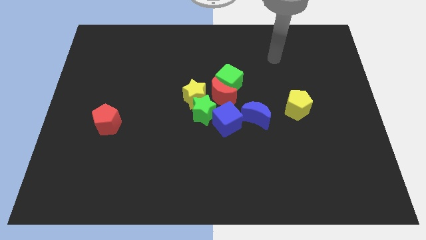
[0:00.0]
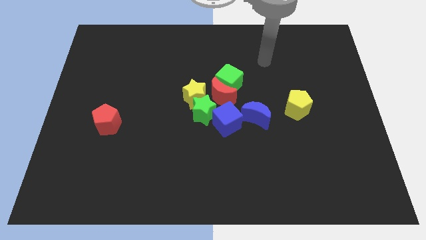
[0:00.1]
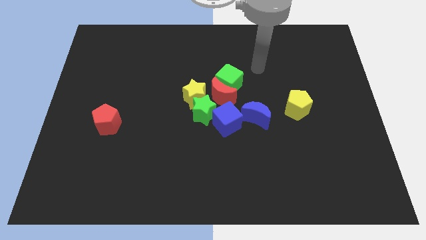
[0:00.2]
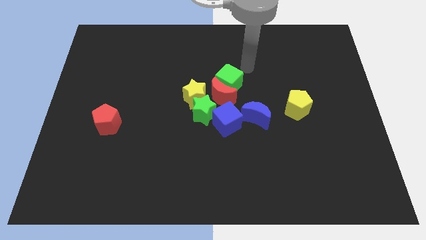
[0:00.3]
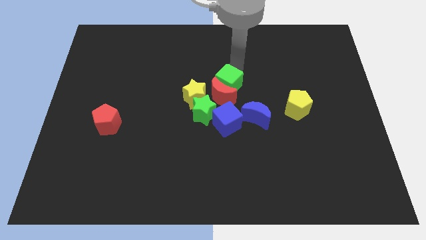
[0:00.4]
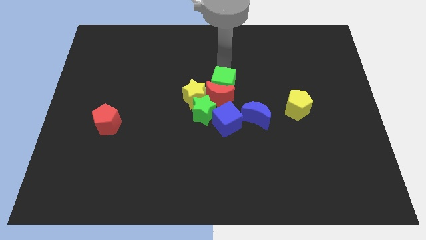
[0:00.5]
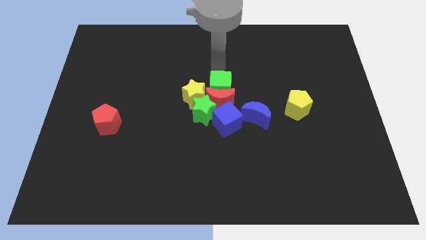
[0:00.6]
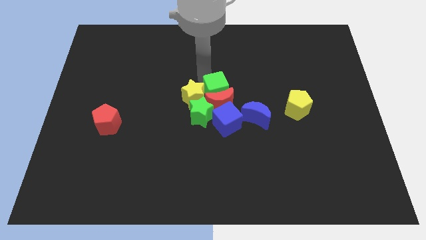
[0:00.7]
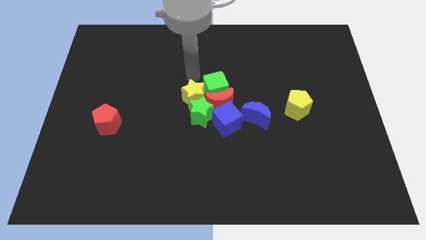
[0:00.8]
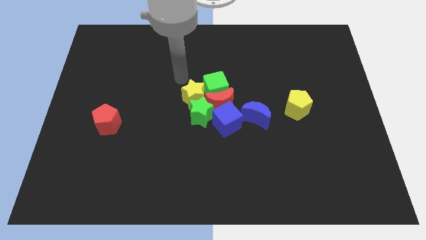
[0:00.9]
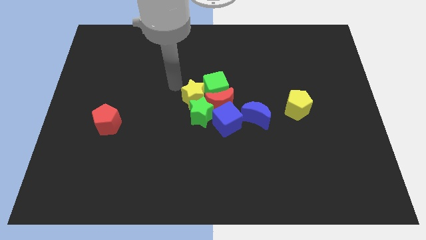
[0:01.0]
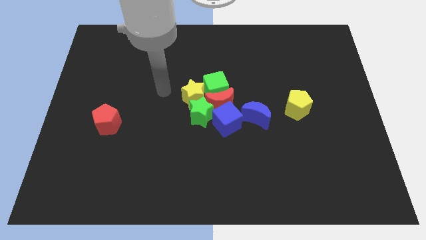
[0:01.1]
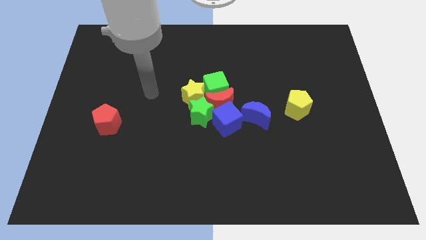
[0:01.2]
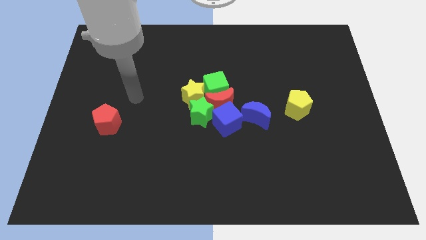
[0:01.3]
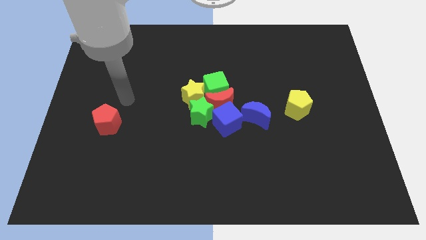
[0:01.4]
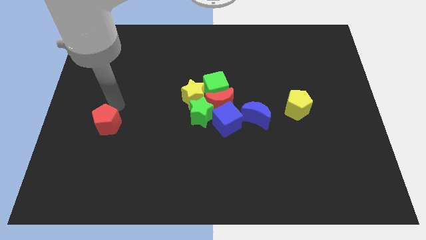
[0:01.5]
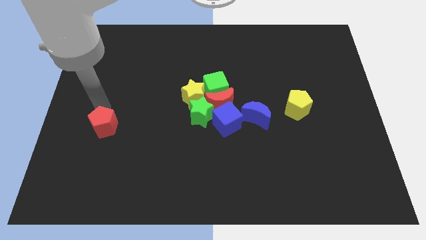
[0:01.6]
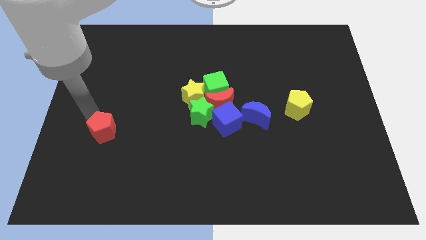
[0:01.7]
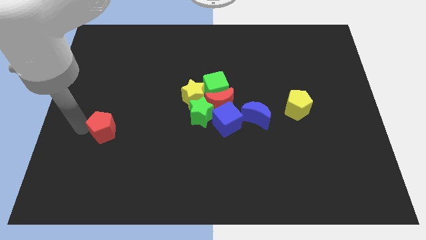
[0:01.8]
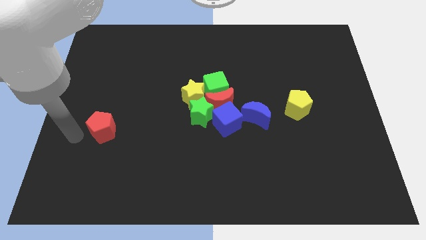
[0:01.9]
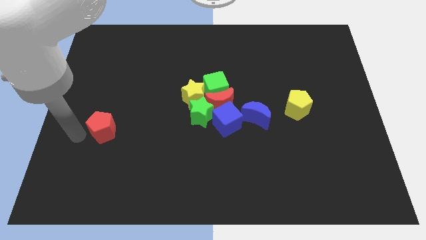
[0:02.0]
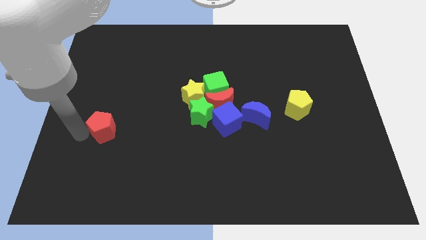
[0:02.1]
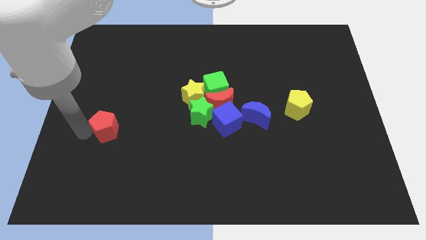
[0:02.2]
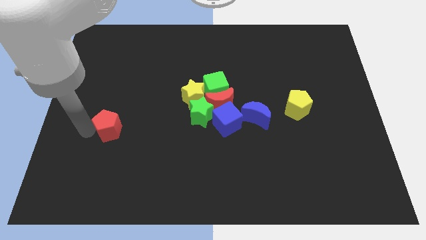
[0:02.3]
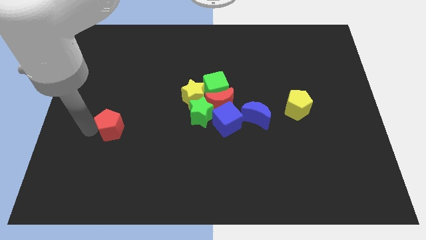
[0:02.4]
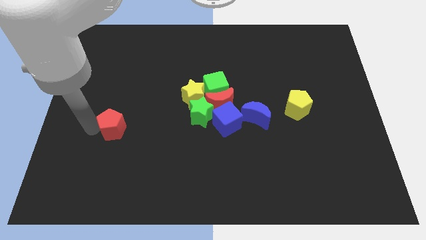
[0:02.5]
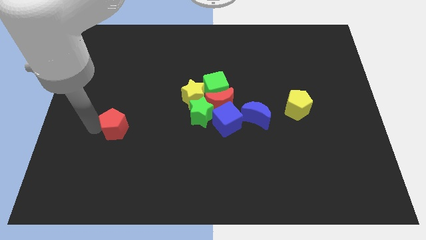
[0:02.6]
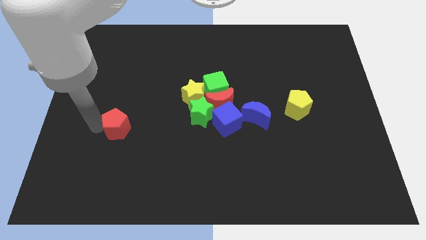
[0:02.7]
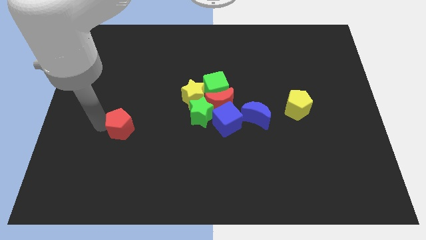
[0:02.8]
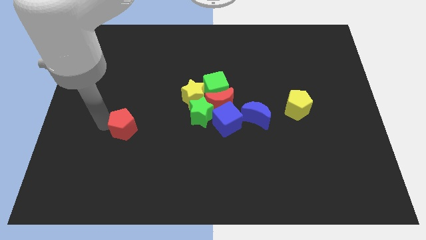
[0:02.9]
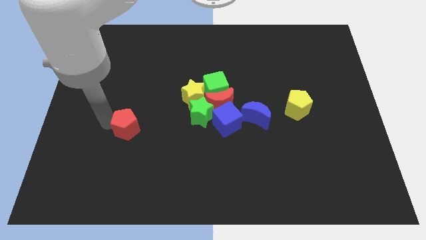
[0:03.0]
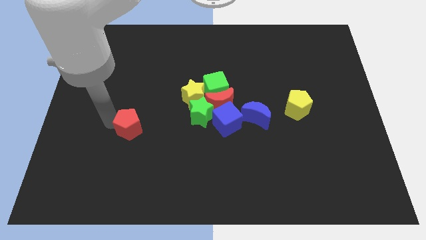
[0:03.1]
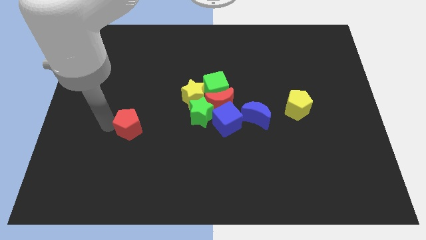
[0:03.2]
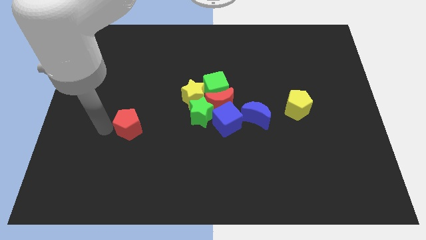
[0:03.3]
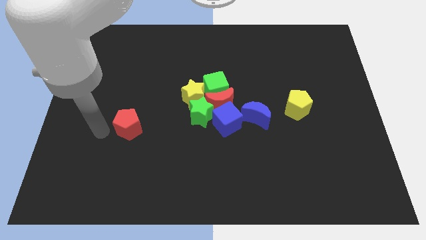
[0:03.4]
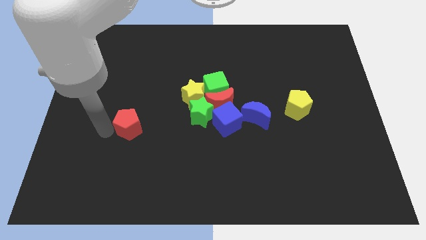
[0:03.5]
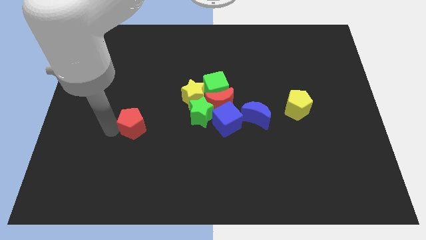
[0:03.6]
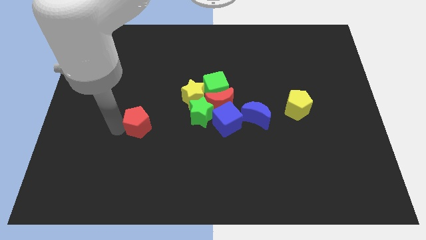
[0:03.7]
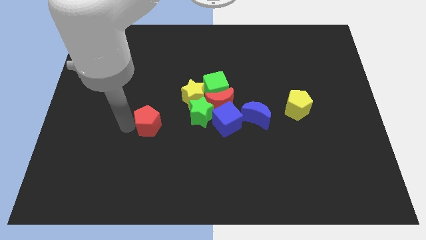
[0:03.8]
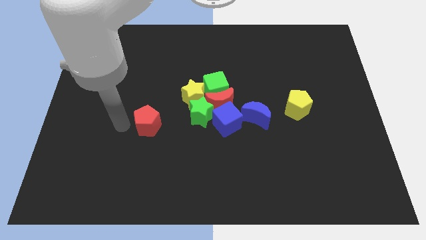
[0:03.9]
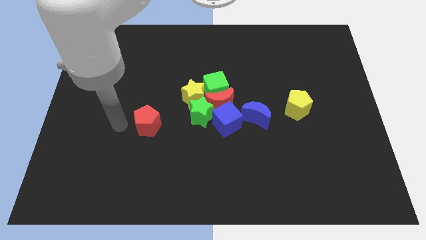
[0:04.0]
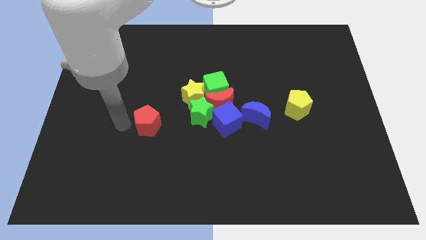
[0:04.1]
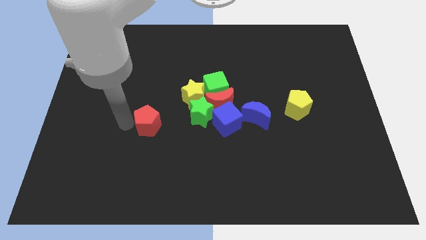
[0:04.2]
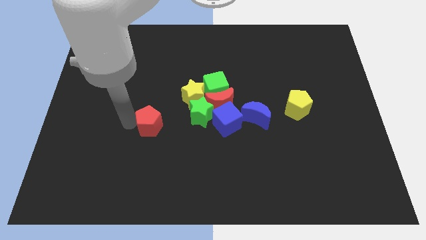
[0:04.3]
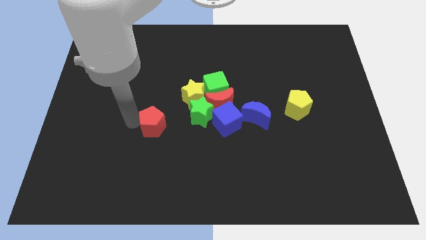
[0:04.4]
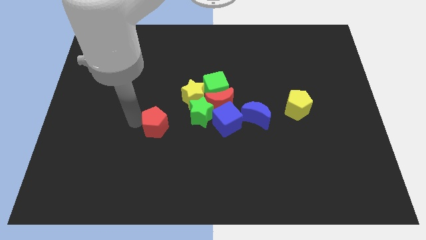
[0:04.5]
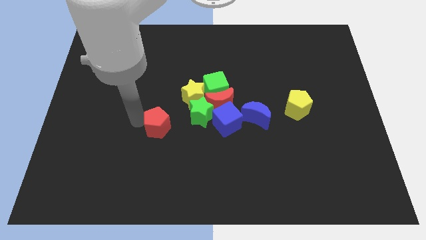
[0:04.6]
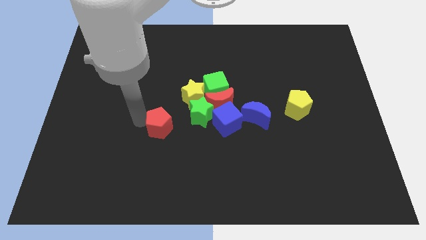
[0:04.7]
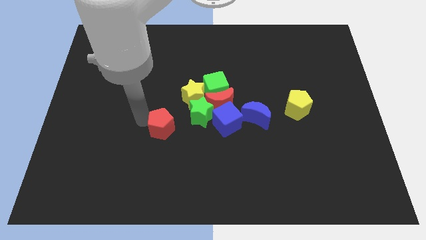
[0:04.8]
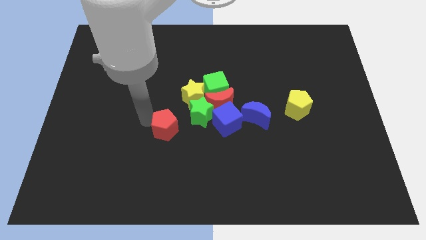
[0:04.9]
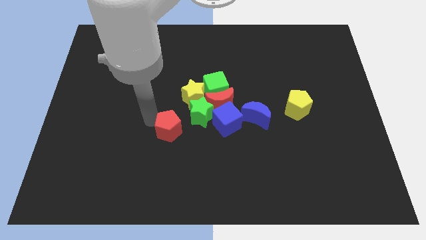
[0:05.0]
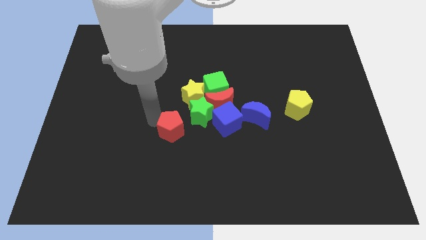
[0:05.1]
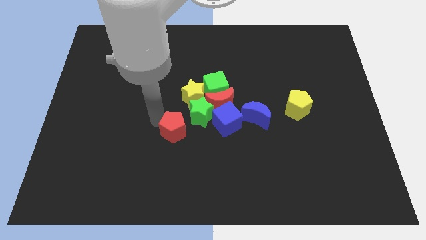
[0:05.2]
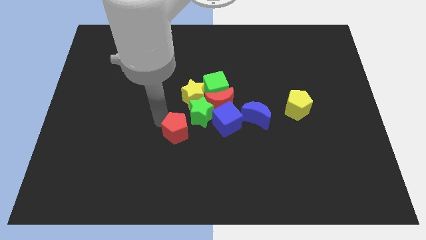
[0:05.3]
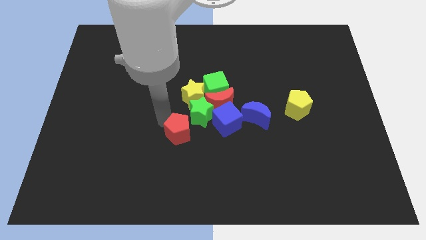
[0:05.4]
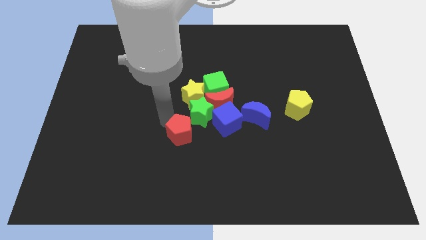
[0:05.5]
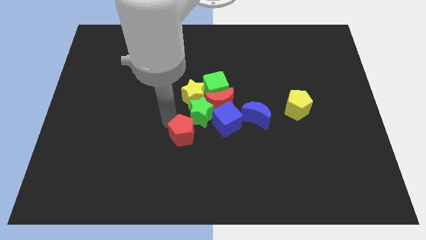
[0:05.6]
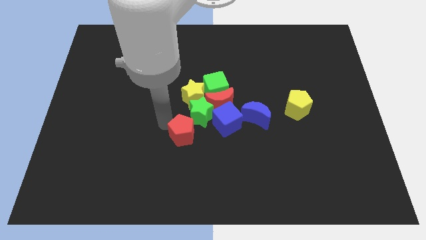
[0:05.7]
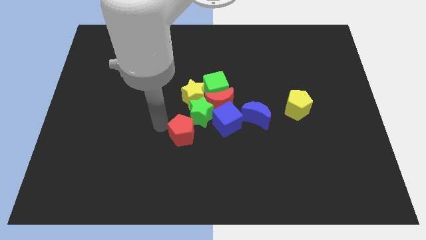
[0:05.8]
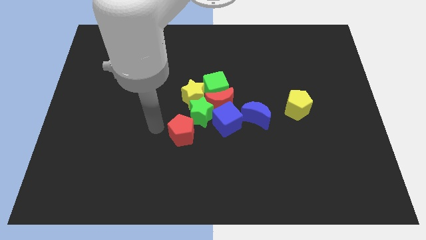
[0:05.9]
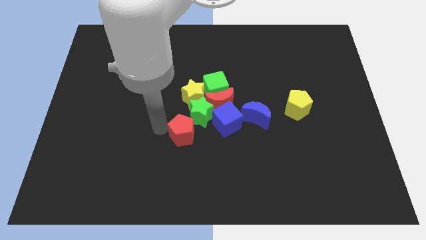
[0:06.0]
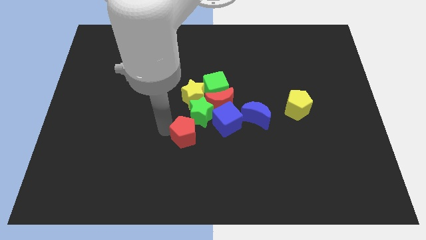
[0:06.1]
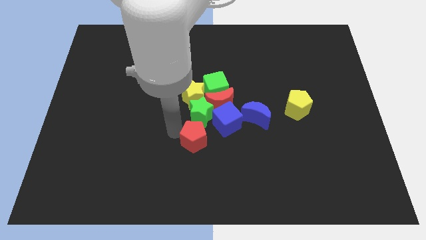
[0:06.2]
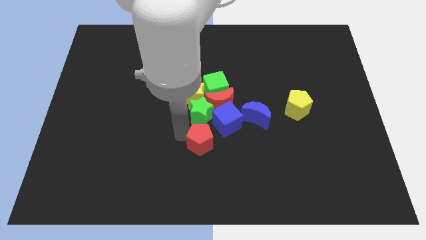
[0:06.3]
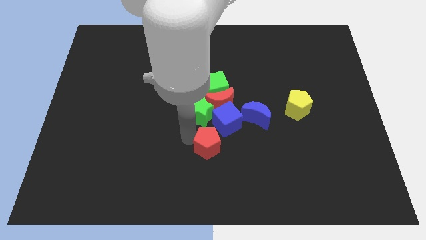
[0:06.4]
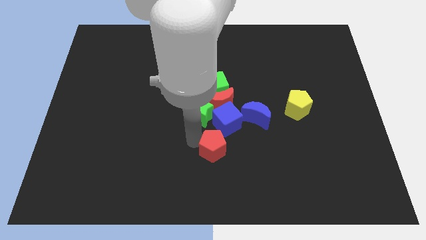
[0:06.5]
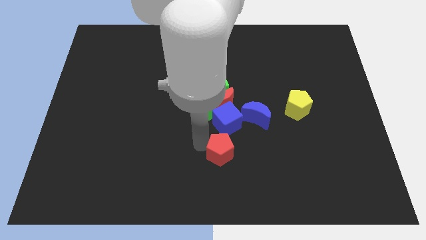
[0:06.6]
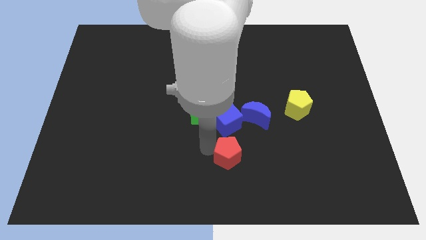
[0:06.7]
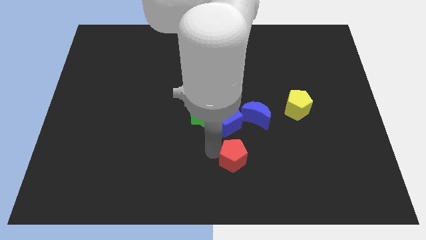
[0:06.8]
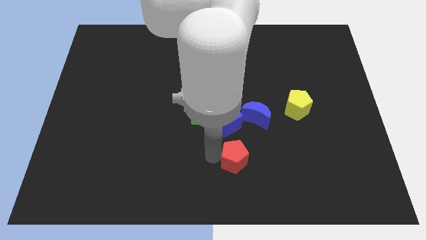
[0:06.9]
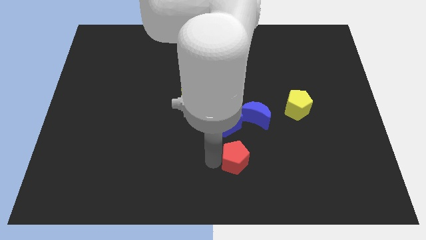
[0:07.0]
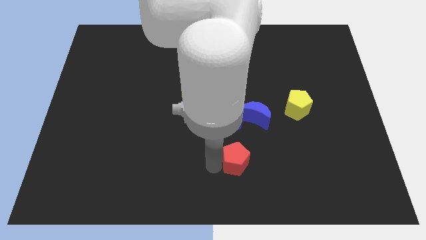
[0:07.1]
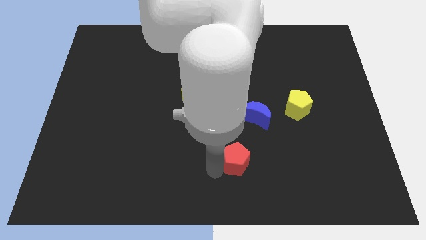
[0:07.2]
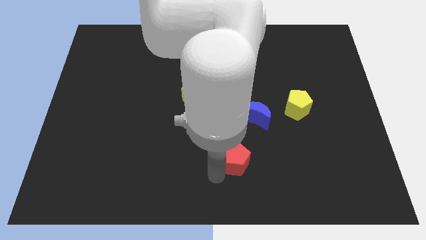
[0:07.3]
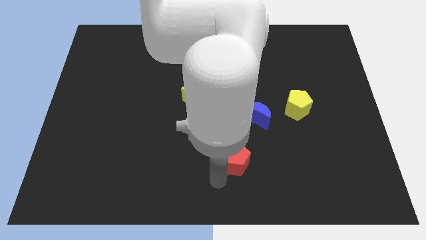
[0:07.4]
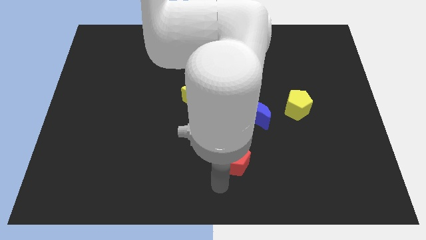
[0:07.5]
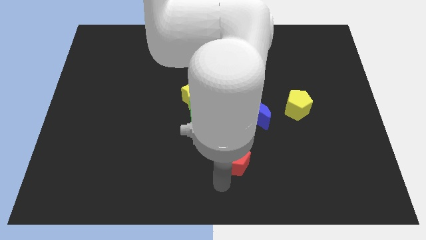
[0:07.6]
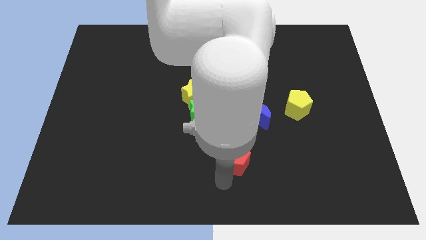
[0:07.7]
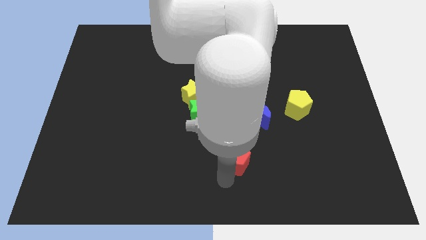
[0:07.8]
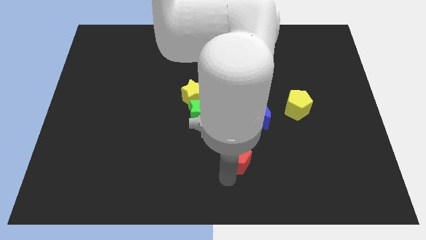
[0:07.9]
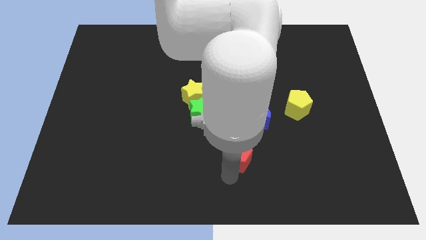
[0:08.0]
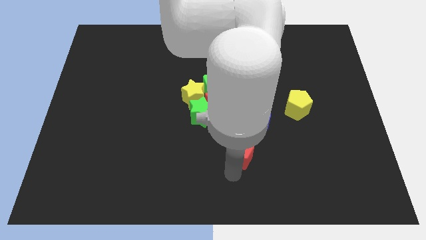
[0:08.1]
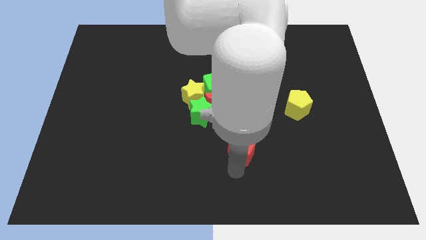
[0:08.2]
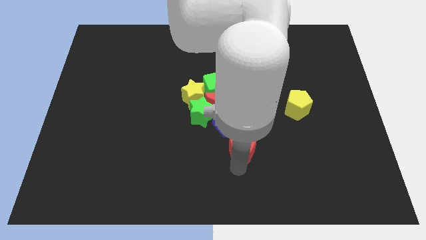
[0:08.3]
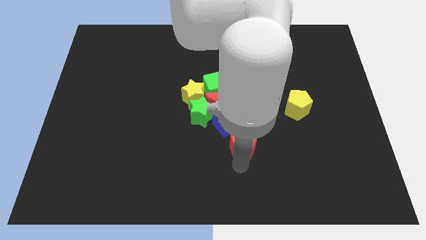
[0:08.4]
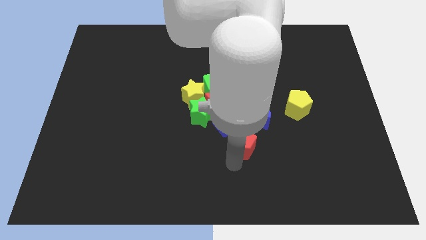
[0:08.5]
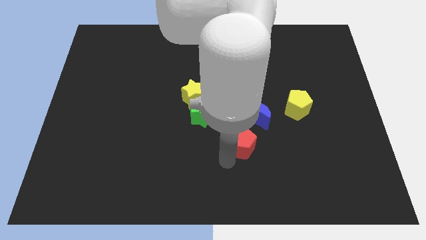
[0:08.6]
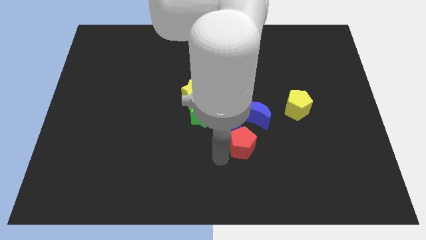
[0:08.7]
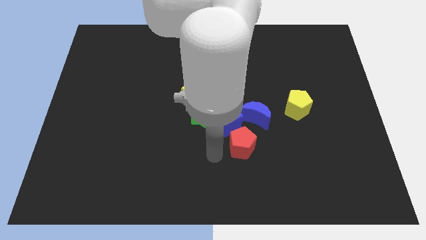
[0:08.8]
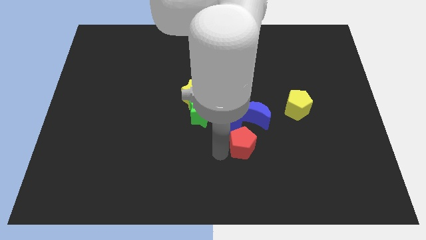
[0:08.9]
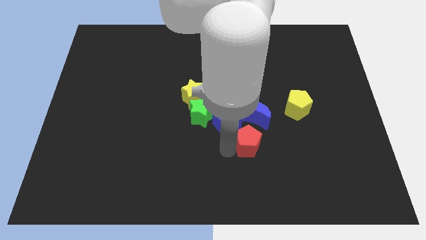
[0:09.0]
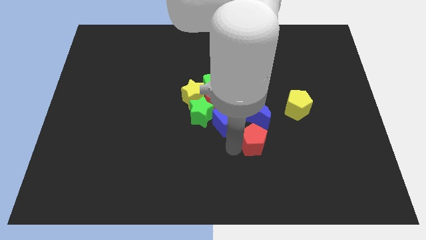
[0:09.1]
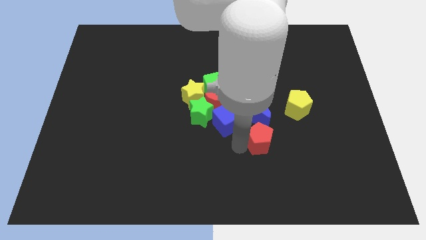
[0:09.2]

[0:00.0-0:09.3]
put the red pentagon to the right of the blue cube
